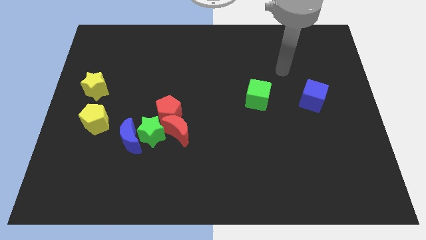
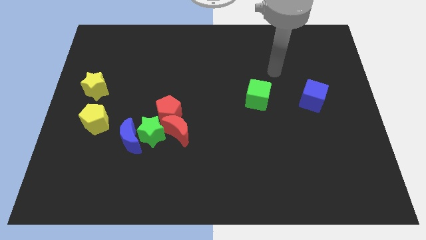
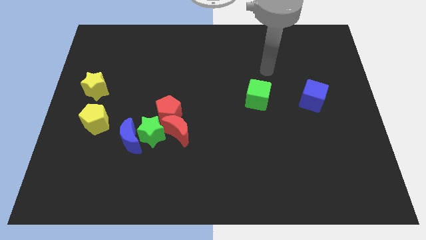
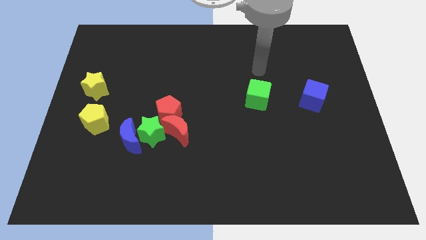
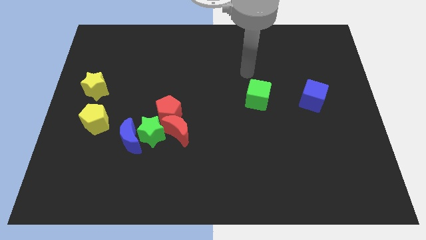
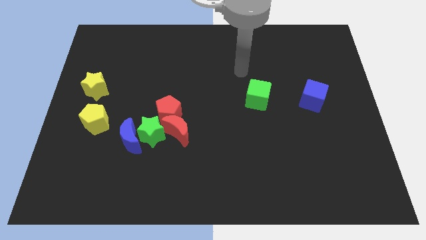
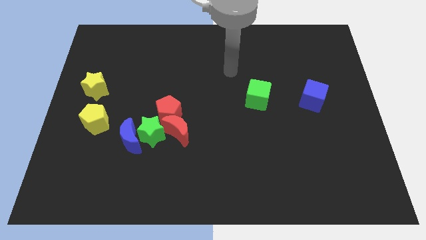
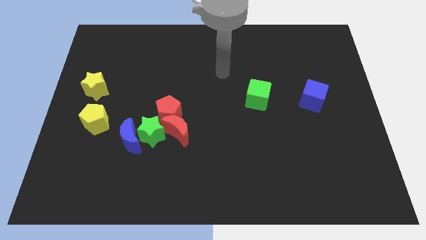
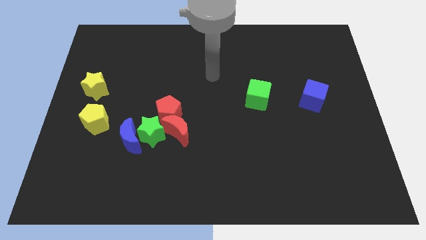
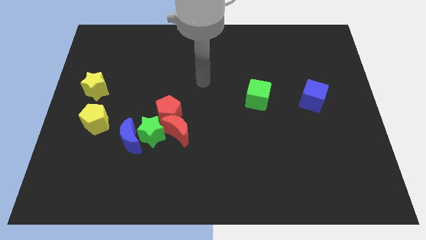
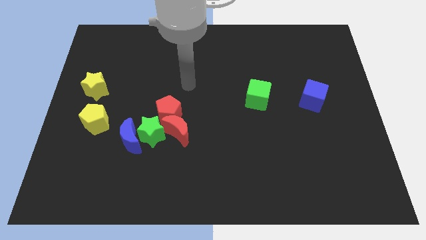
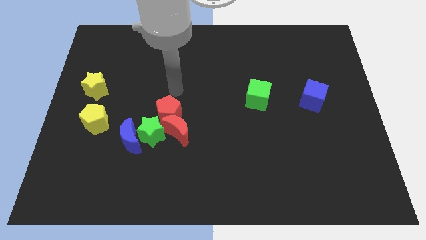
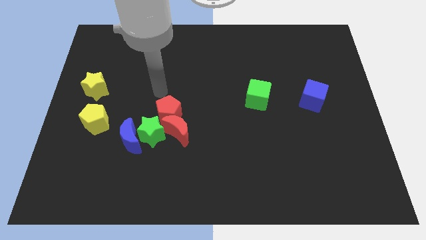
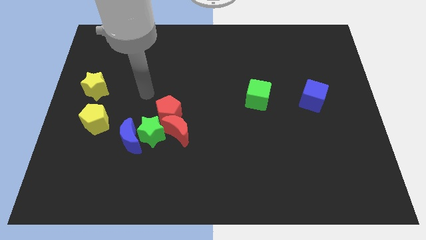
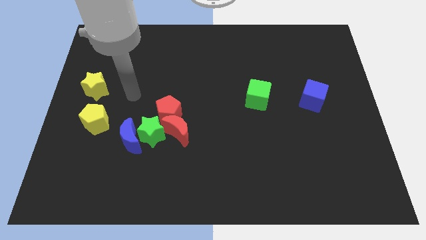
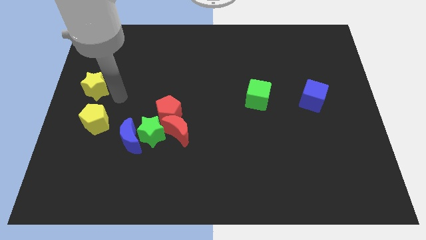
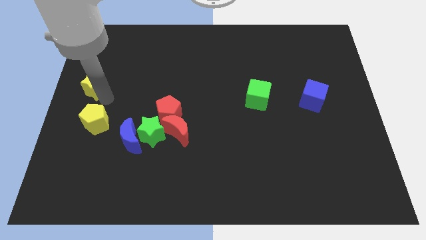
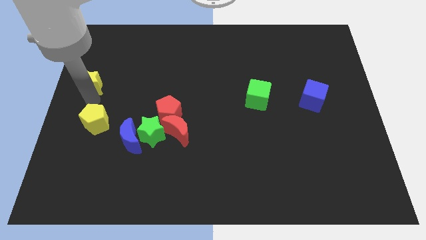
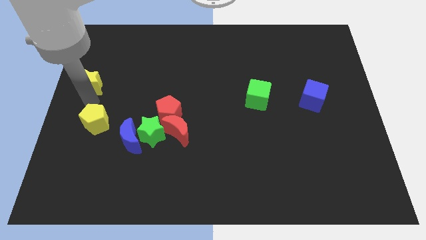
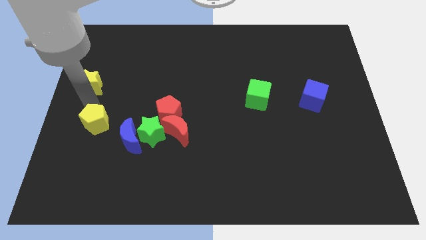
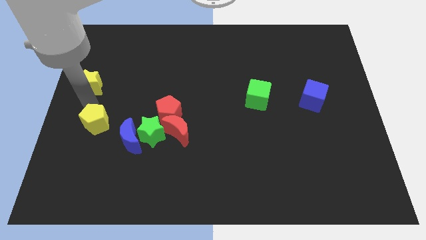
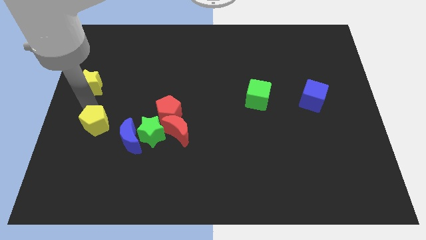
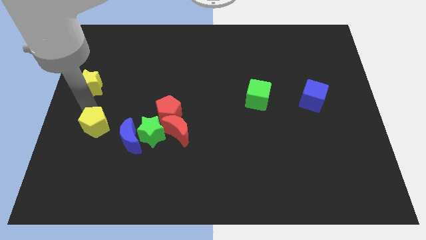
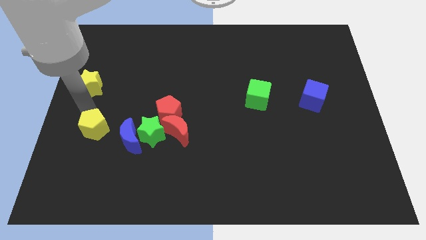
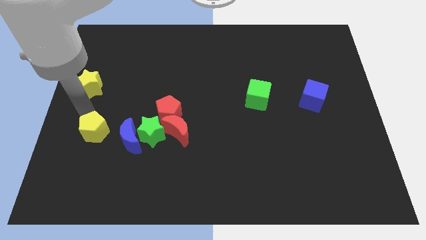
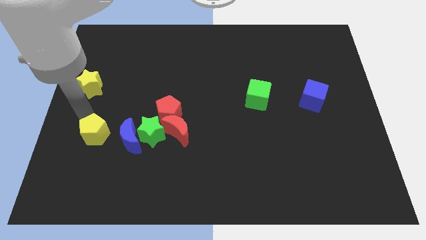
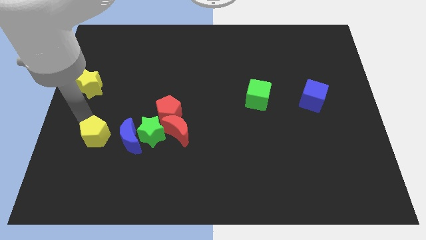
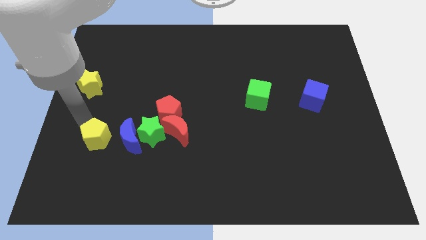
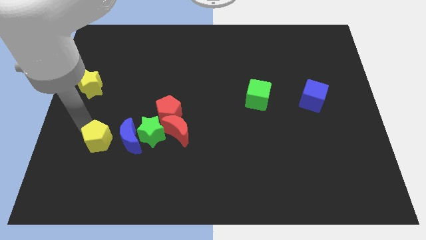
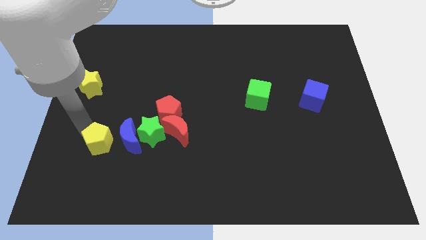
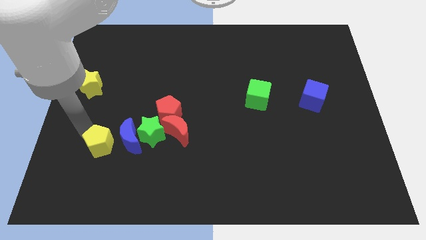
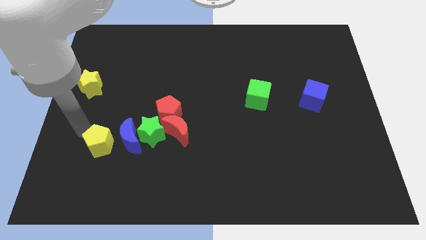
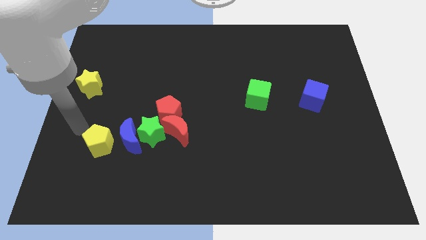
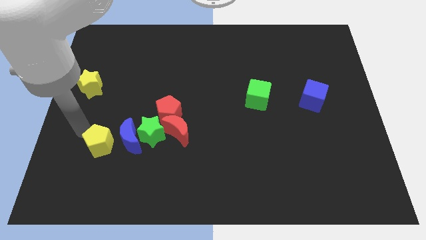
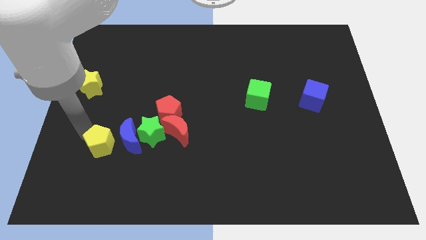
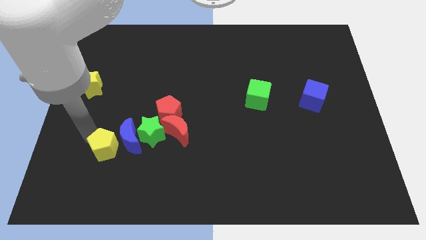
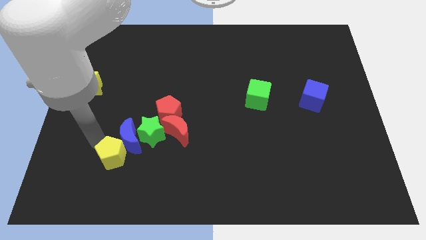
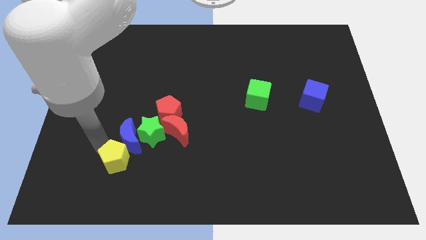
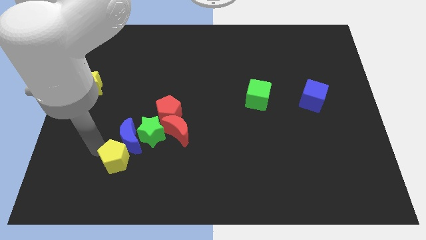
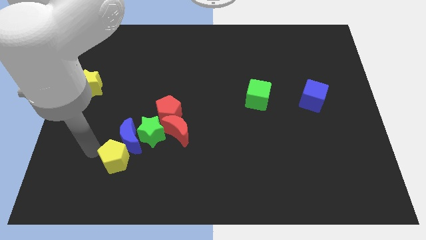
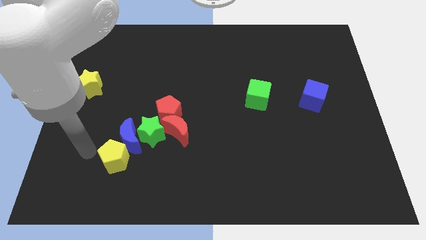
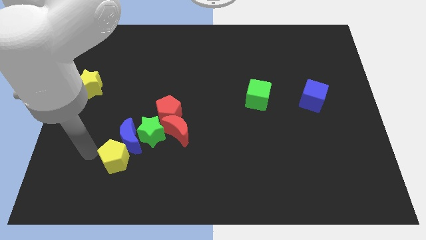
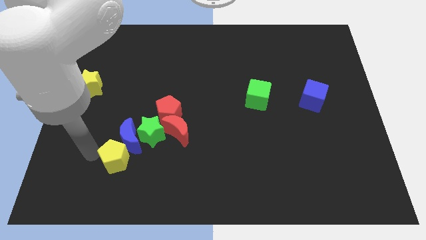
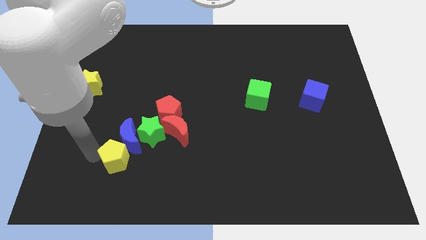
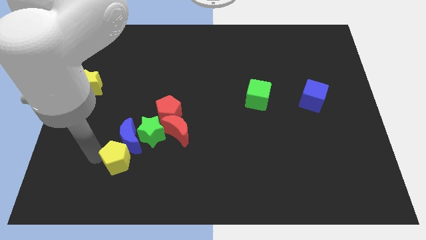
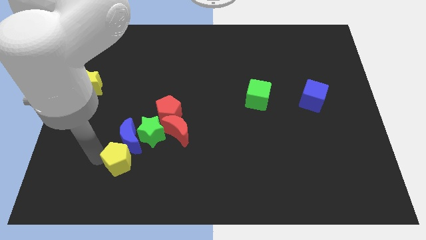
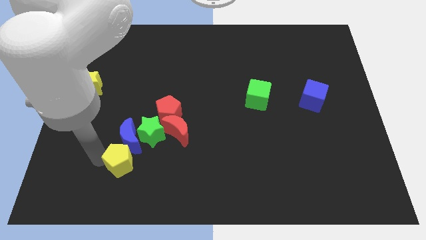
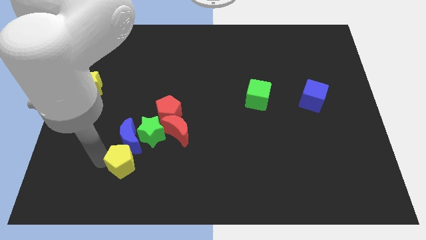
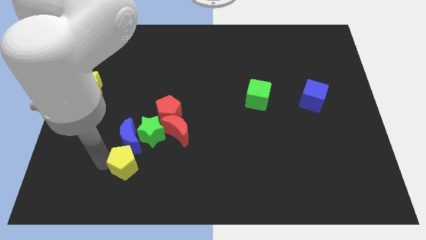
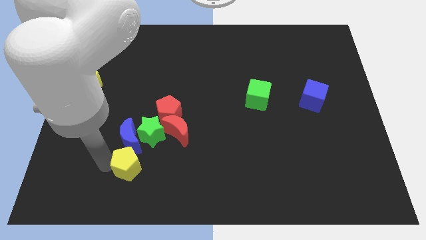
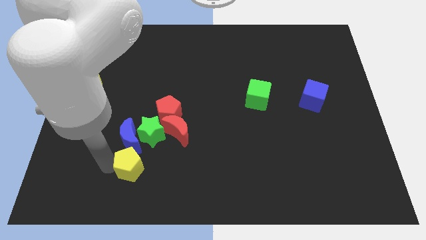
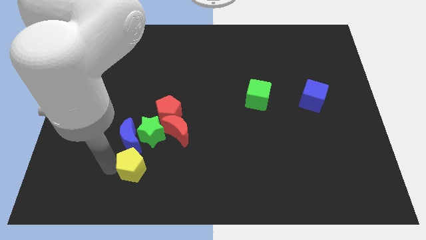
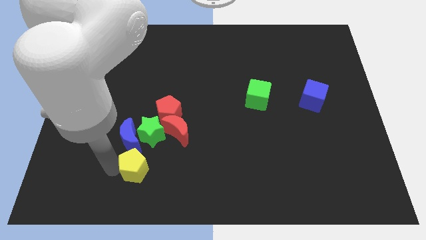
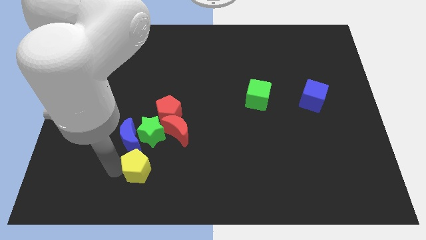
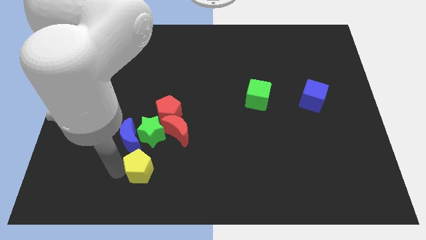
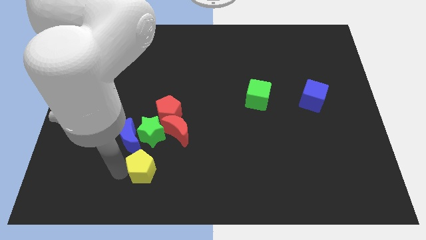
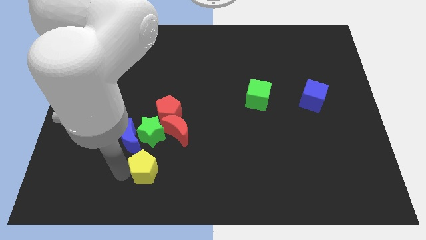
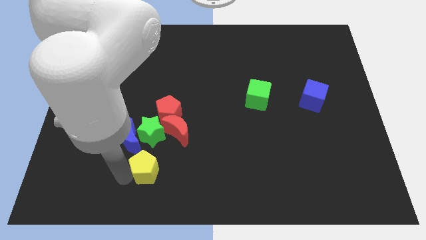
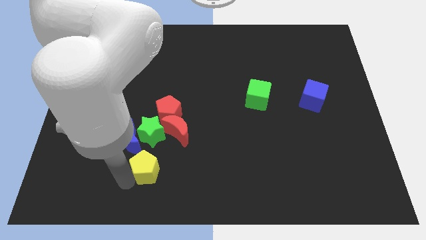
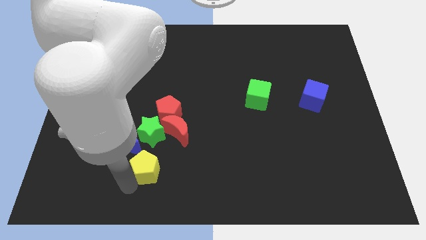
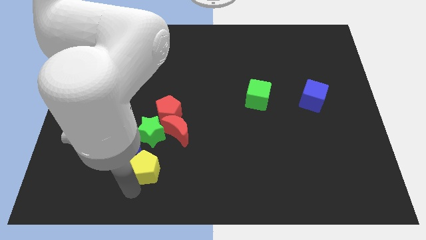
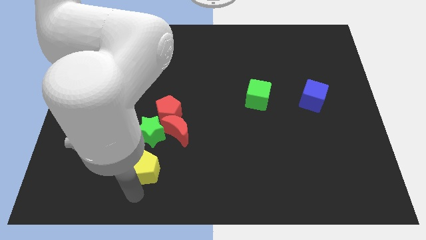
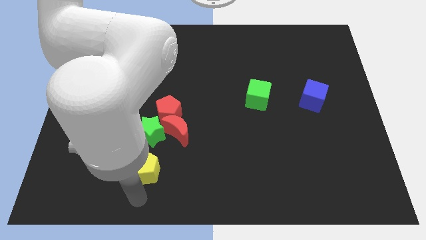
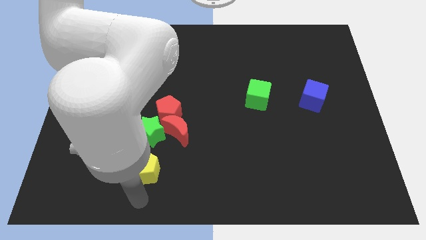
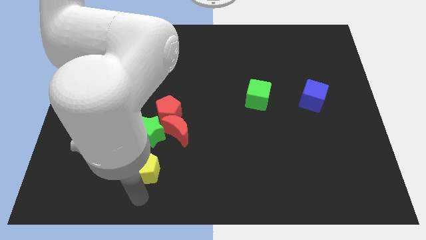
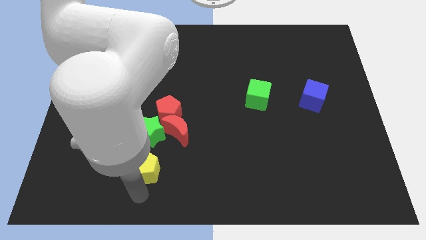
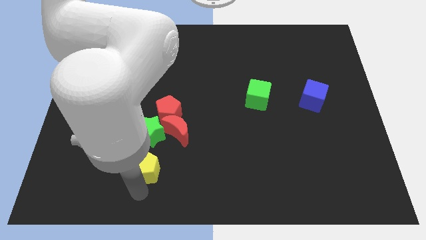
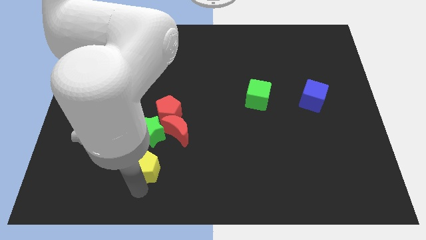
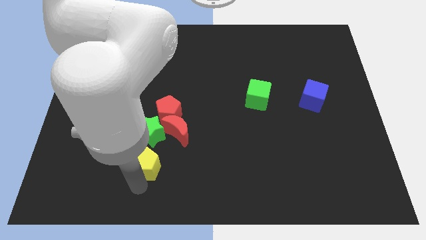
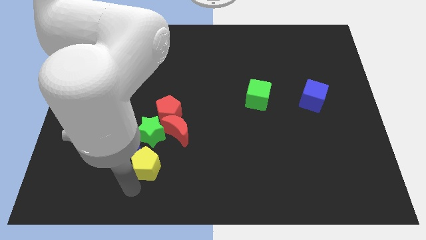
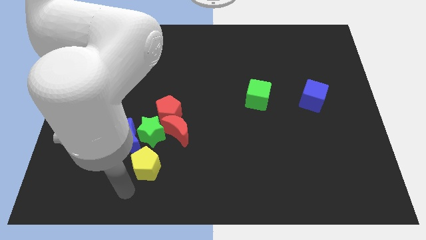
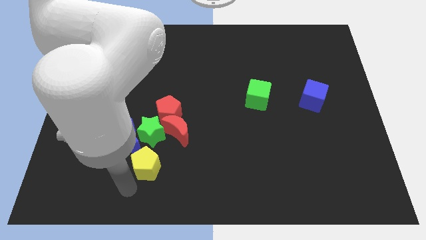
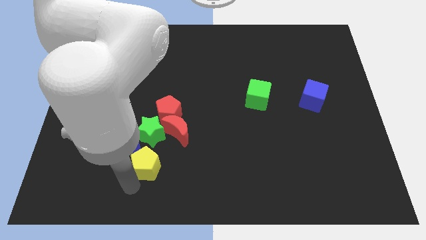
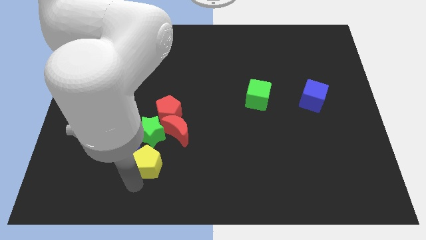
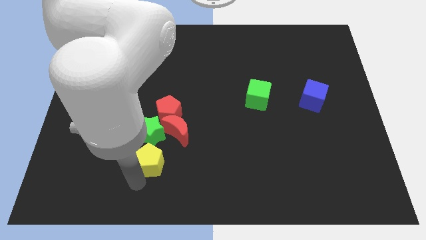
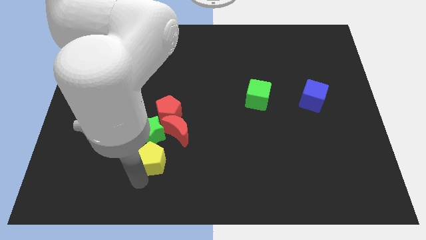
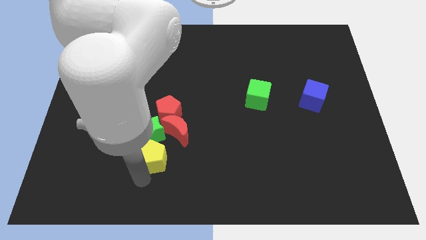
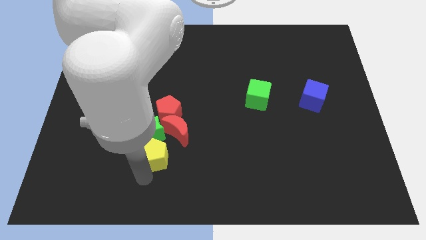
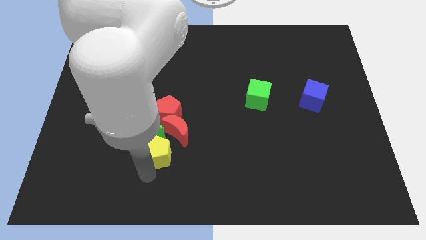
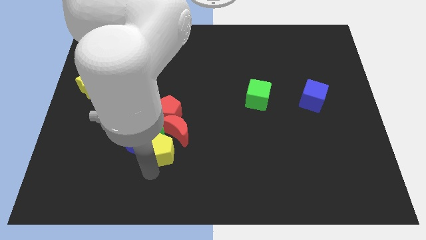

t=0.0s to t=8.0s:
push the yellow pentagon close to the red moon
